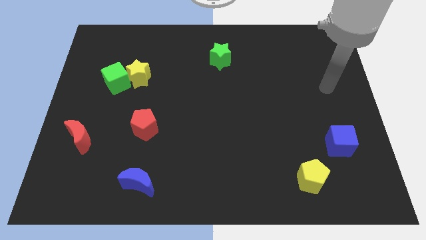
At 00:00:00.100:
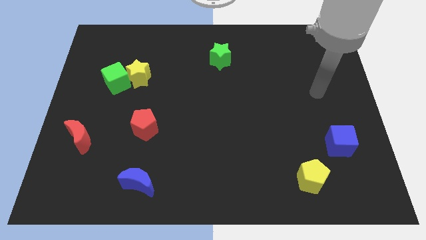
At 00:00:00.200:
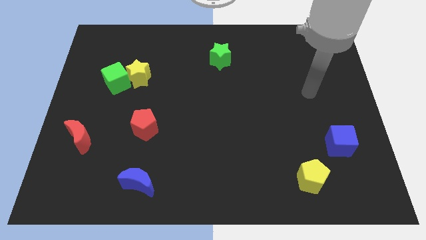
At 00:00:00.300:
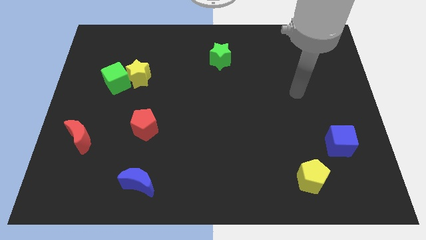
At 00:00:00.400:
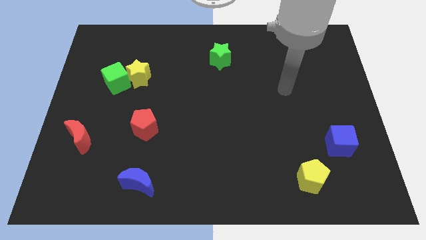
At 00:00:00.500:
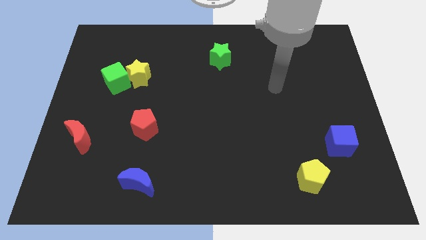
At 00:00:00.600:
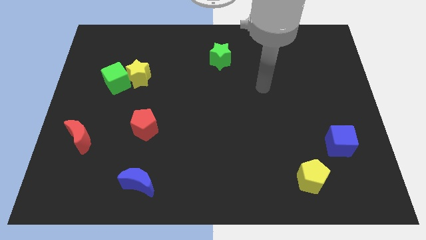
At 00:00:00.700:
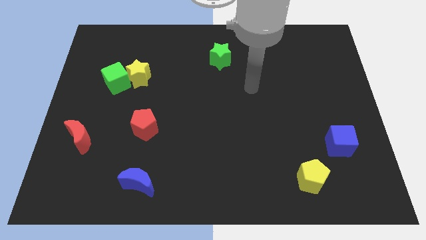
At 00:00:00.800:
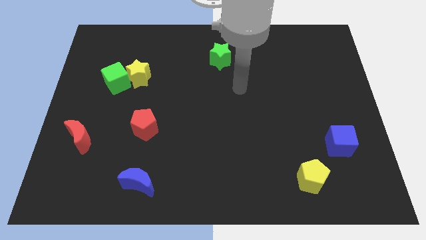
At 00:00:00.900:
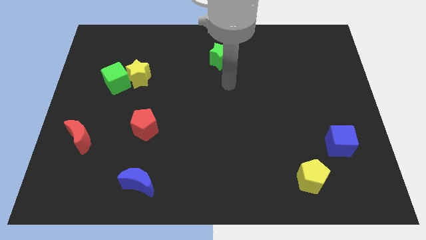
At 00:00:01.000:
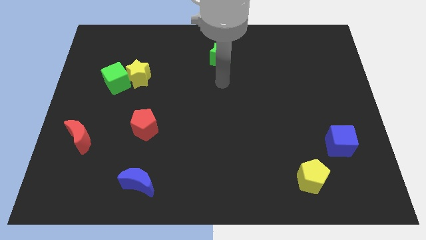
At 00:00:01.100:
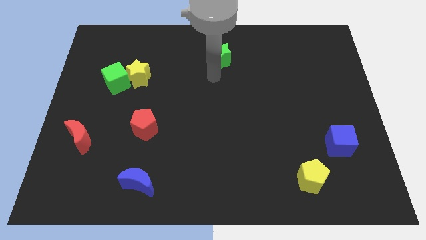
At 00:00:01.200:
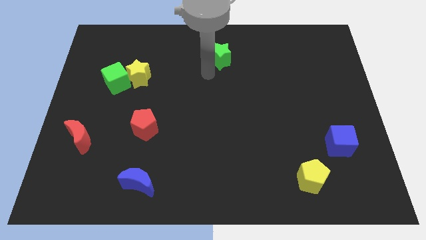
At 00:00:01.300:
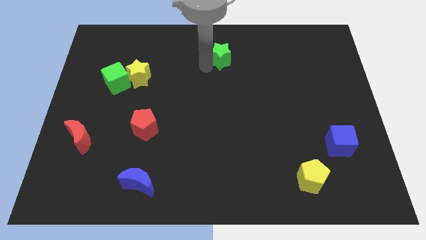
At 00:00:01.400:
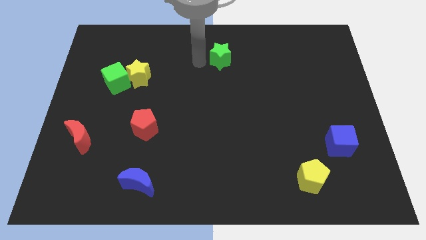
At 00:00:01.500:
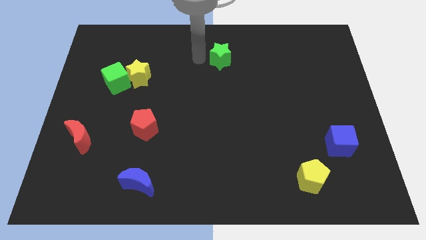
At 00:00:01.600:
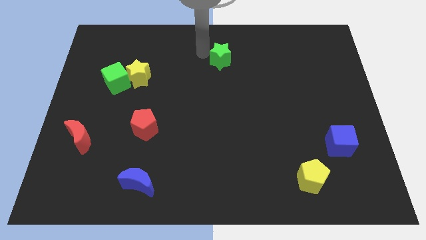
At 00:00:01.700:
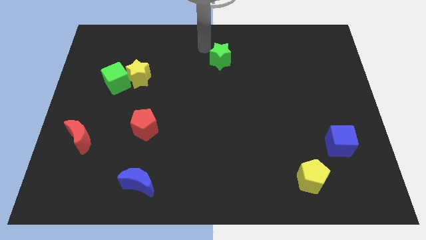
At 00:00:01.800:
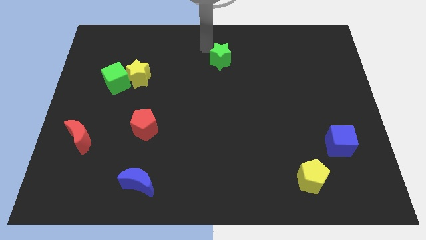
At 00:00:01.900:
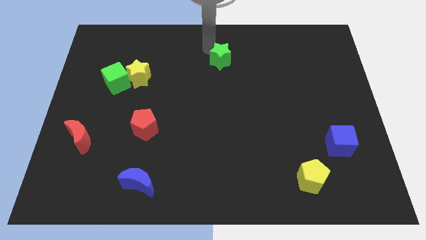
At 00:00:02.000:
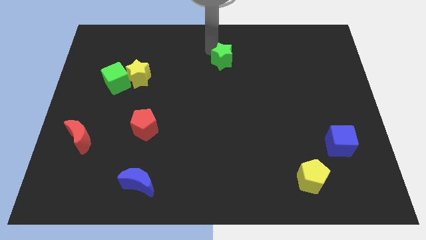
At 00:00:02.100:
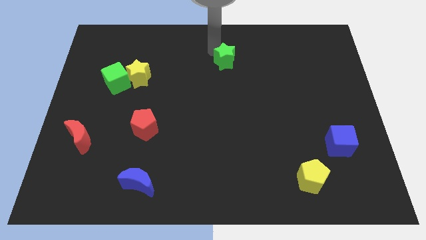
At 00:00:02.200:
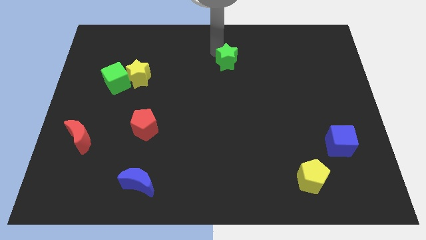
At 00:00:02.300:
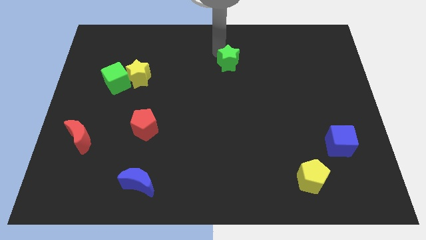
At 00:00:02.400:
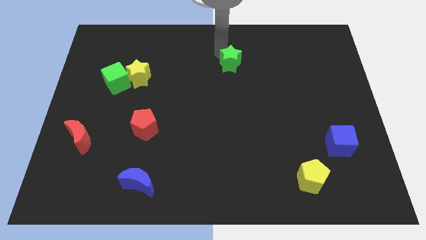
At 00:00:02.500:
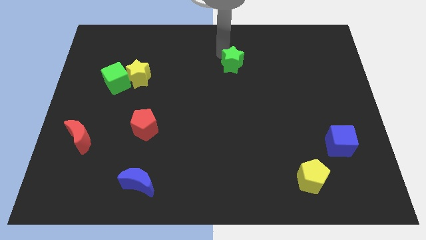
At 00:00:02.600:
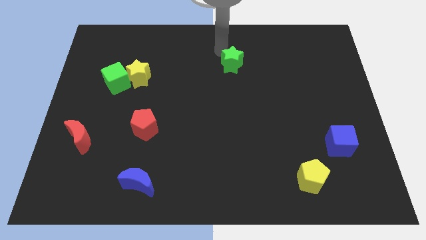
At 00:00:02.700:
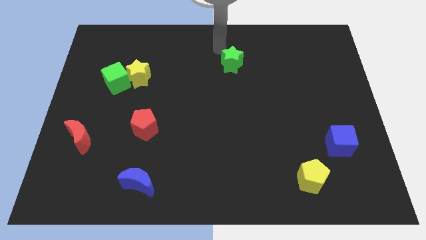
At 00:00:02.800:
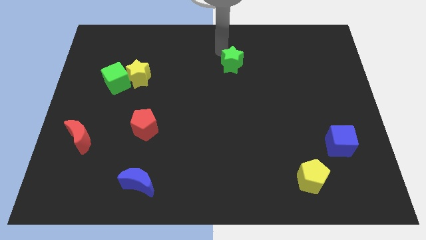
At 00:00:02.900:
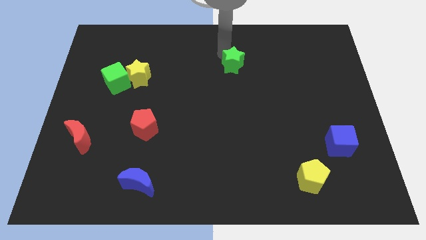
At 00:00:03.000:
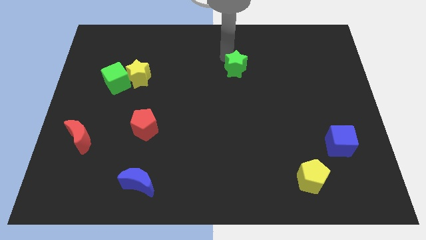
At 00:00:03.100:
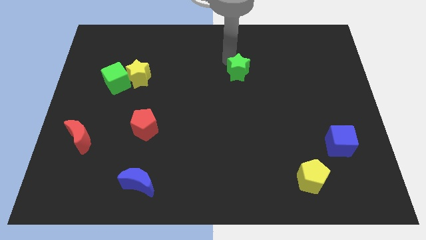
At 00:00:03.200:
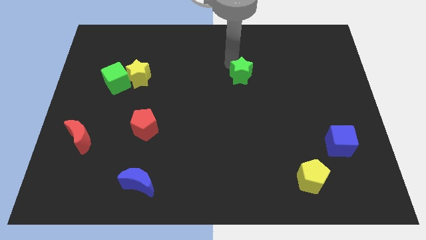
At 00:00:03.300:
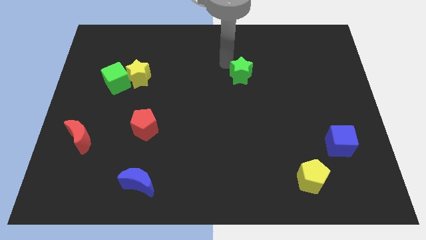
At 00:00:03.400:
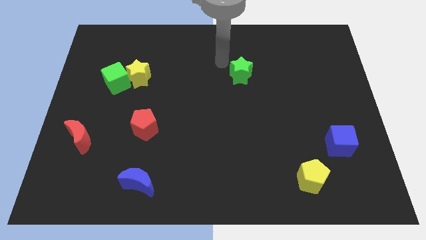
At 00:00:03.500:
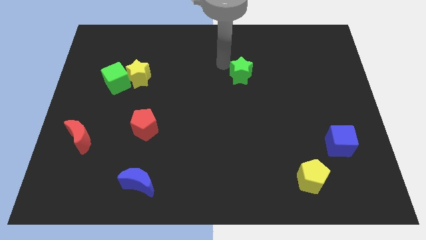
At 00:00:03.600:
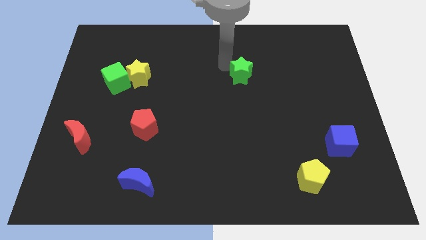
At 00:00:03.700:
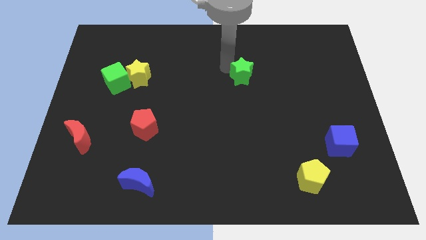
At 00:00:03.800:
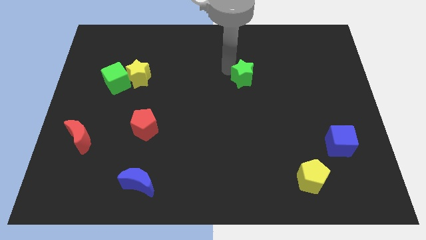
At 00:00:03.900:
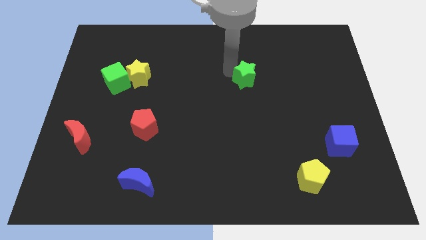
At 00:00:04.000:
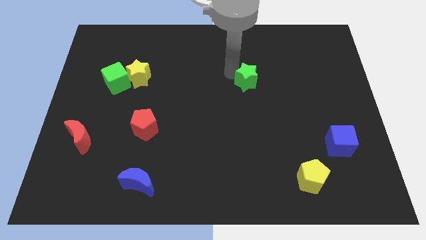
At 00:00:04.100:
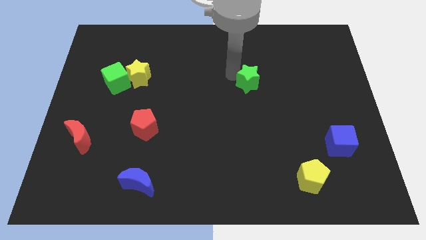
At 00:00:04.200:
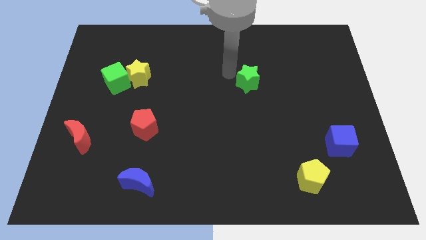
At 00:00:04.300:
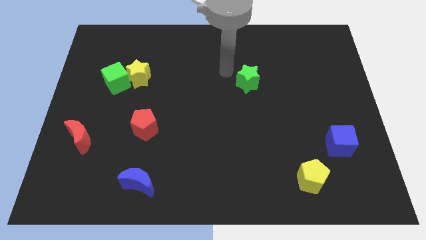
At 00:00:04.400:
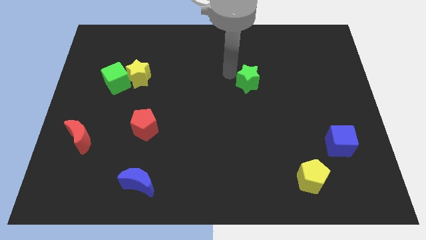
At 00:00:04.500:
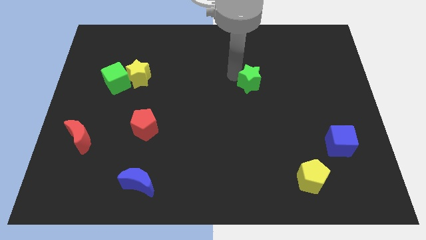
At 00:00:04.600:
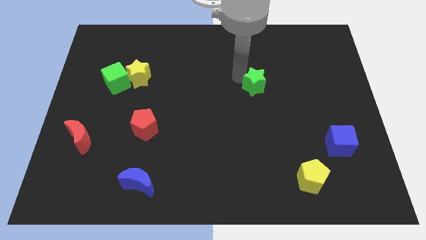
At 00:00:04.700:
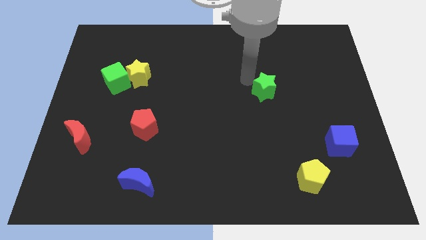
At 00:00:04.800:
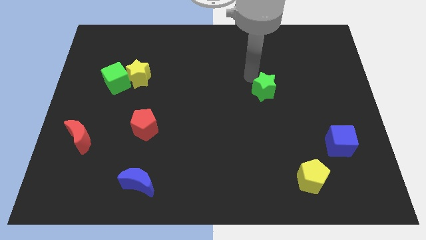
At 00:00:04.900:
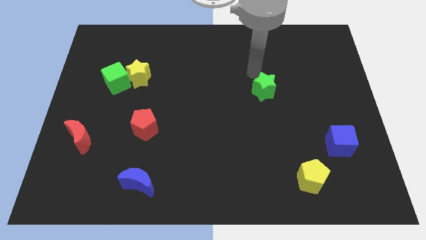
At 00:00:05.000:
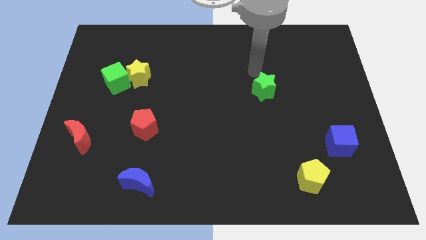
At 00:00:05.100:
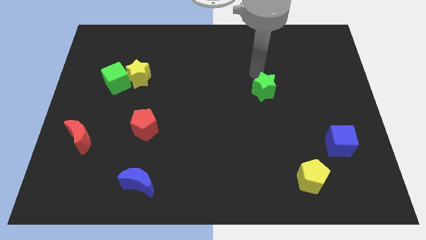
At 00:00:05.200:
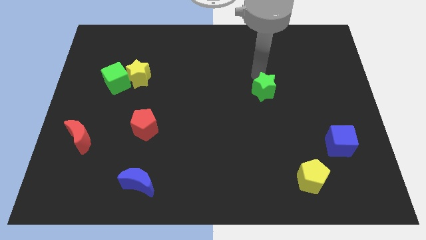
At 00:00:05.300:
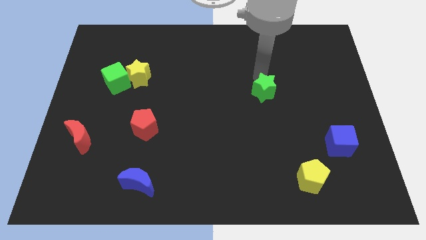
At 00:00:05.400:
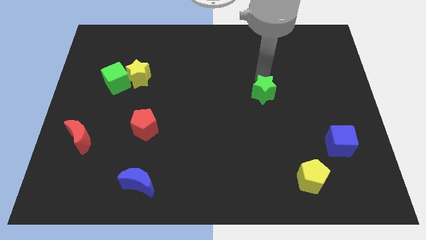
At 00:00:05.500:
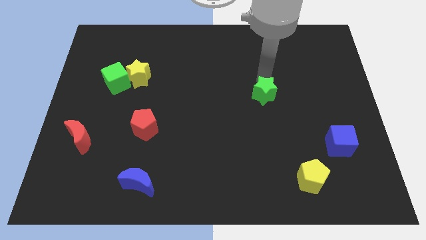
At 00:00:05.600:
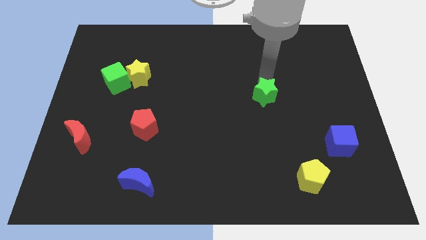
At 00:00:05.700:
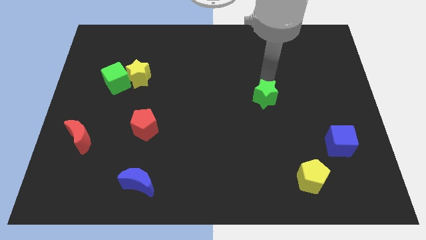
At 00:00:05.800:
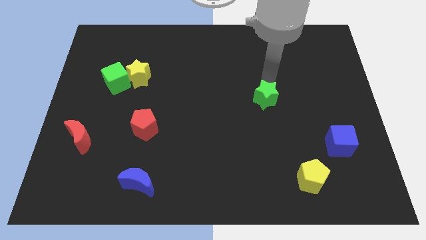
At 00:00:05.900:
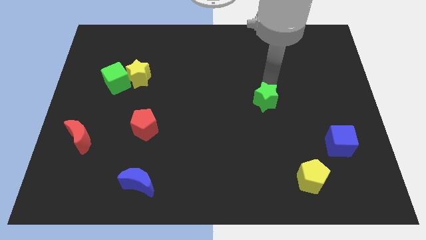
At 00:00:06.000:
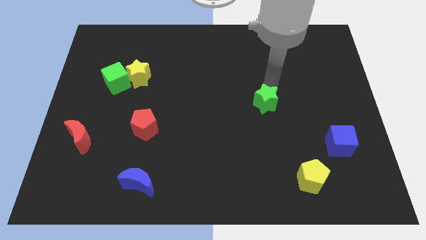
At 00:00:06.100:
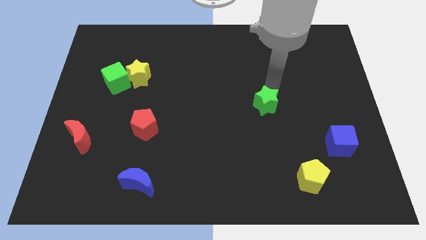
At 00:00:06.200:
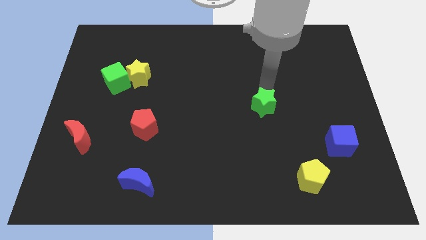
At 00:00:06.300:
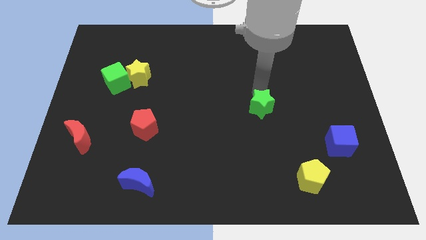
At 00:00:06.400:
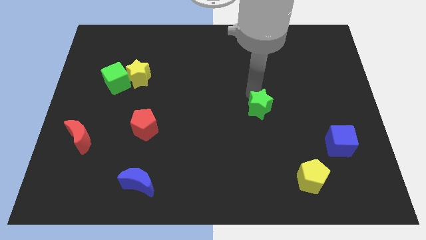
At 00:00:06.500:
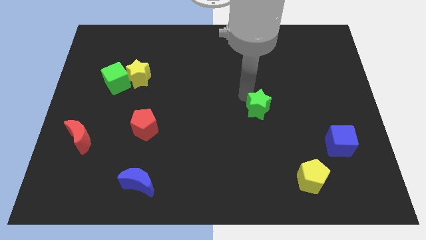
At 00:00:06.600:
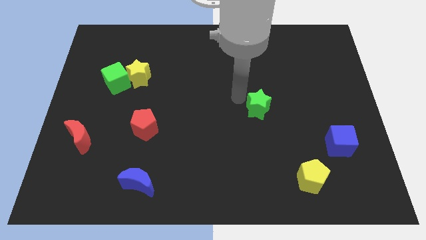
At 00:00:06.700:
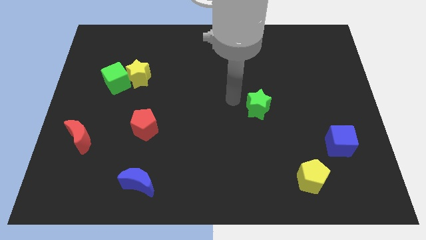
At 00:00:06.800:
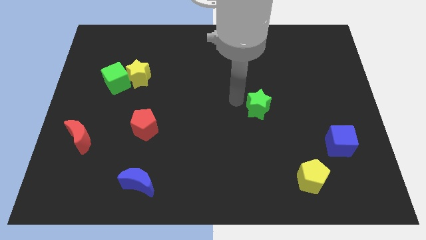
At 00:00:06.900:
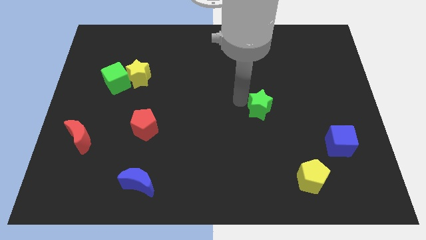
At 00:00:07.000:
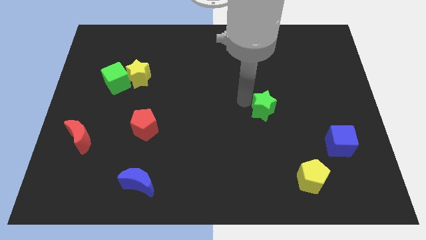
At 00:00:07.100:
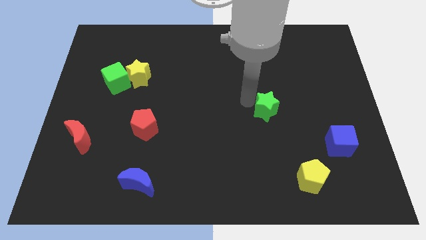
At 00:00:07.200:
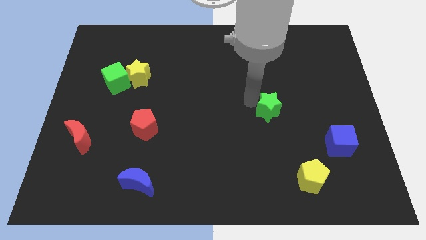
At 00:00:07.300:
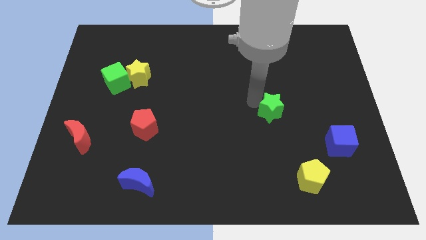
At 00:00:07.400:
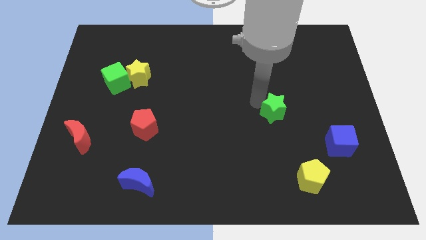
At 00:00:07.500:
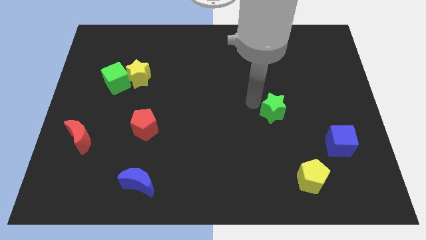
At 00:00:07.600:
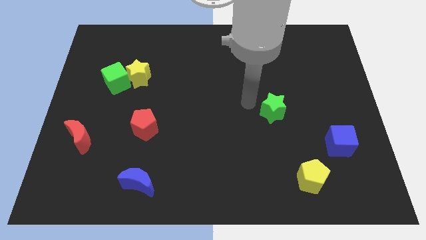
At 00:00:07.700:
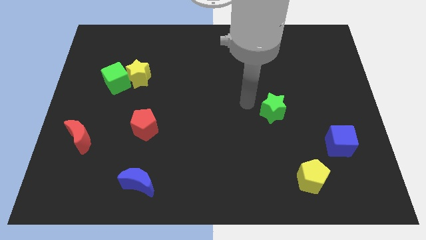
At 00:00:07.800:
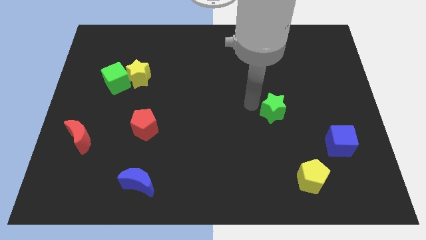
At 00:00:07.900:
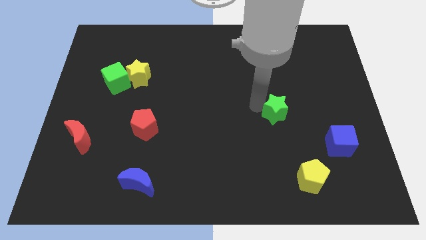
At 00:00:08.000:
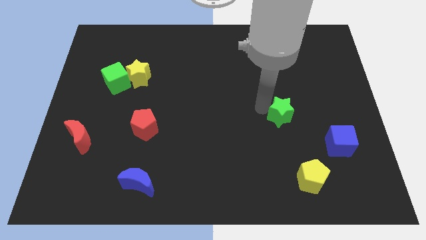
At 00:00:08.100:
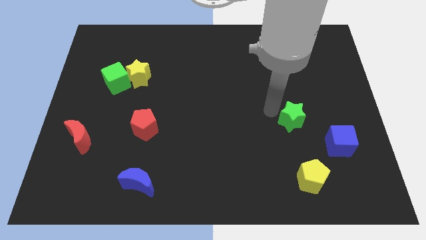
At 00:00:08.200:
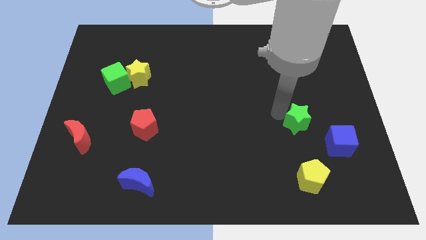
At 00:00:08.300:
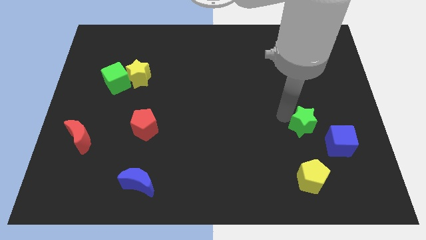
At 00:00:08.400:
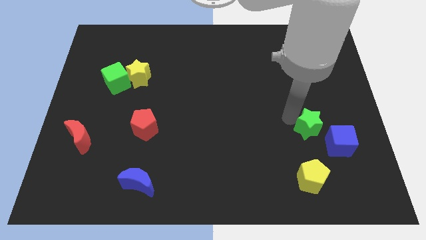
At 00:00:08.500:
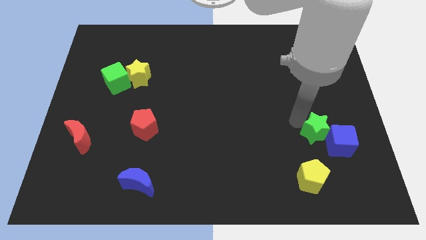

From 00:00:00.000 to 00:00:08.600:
put the green star towards the blue cube
